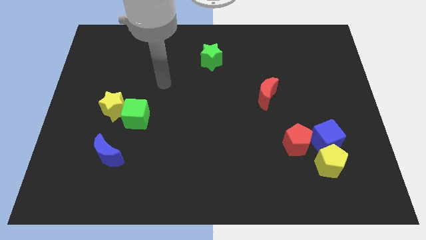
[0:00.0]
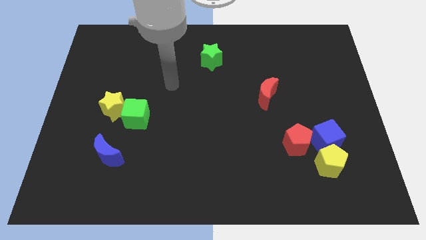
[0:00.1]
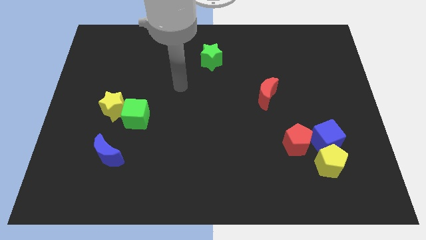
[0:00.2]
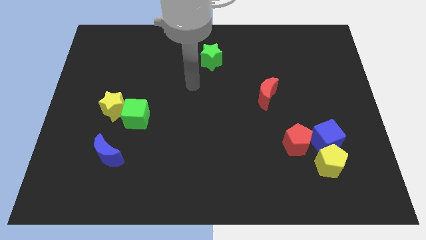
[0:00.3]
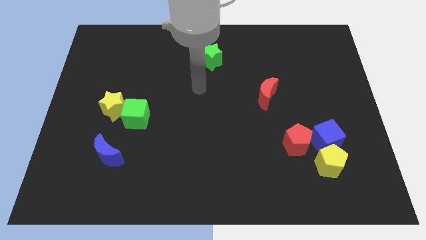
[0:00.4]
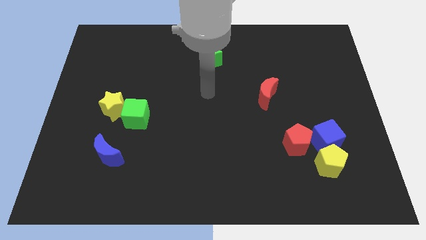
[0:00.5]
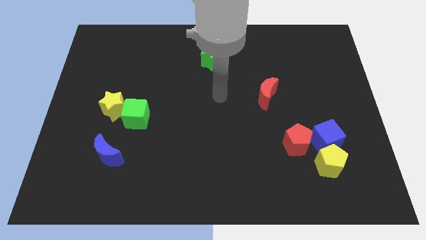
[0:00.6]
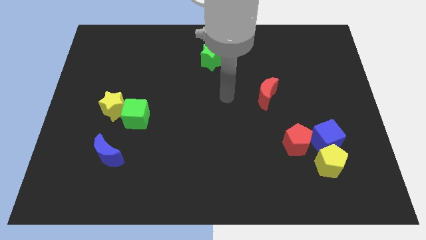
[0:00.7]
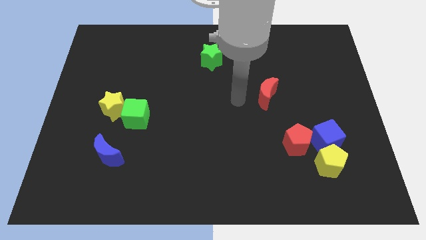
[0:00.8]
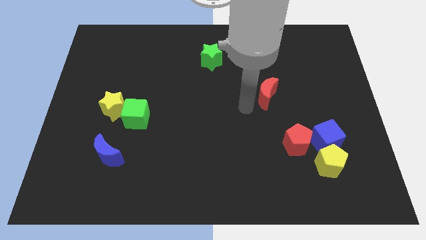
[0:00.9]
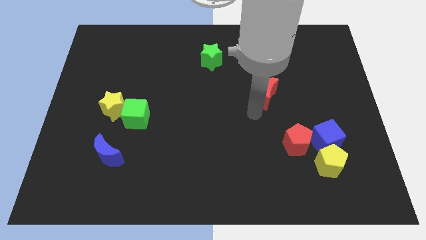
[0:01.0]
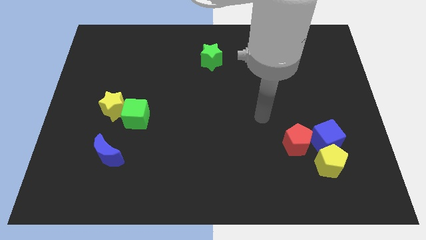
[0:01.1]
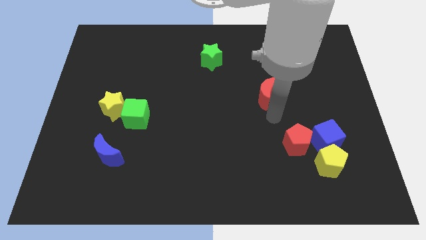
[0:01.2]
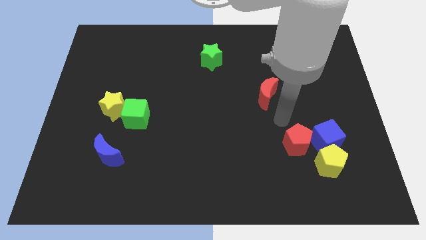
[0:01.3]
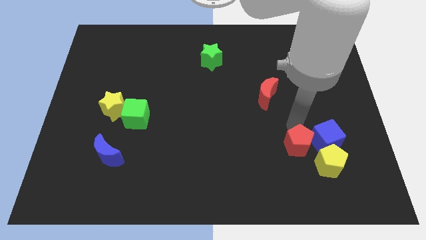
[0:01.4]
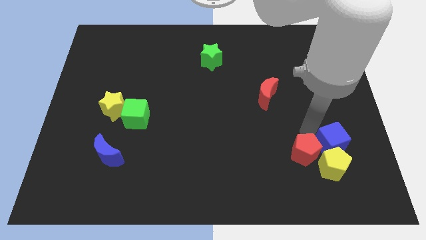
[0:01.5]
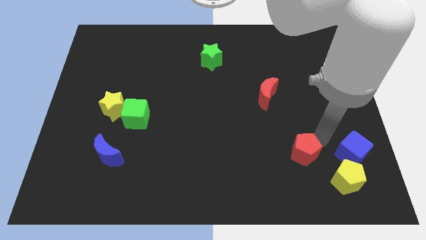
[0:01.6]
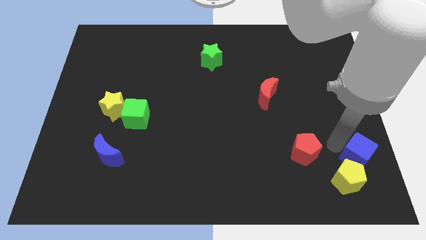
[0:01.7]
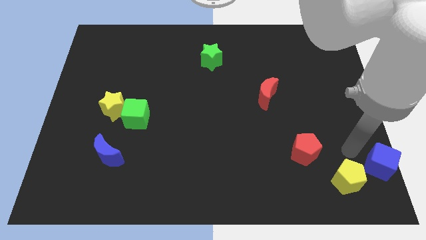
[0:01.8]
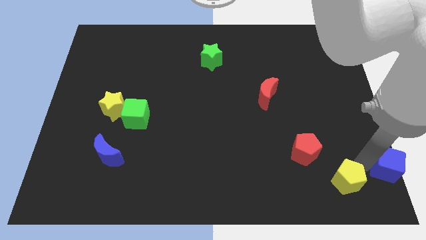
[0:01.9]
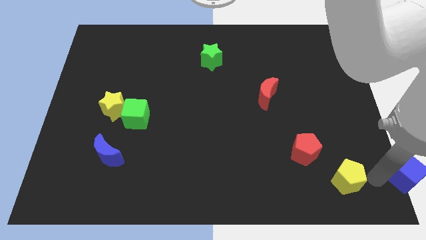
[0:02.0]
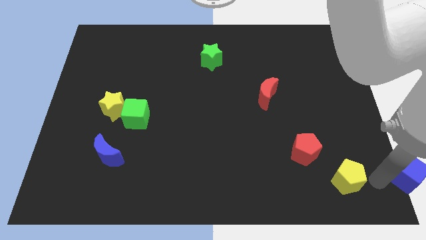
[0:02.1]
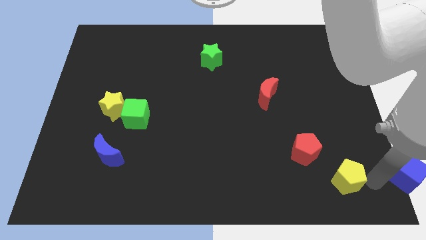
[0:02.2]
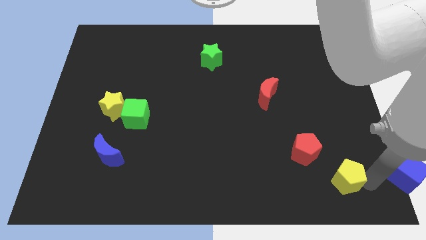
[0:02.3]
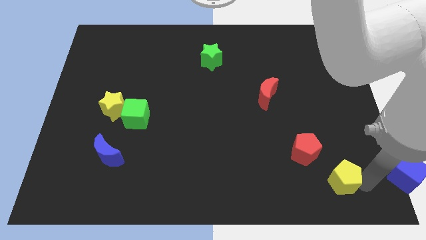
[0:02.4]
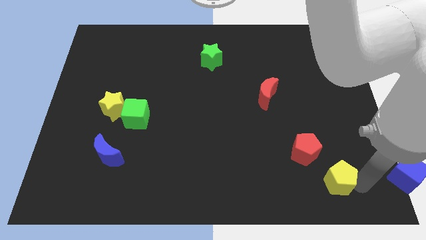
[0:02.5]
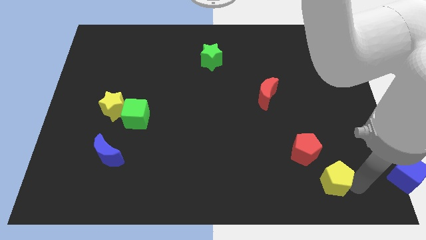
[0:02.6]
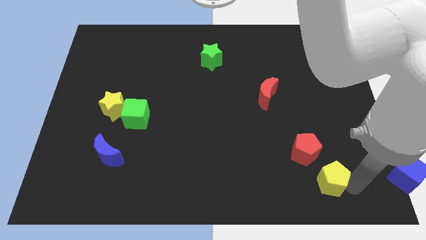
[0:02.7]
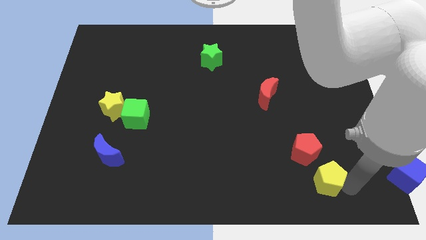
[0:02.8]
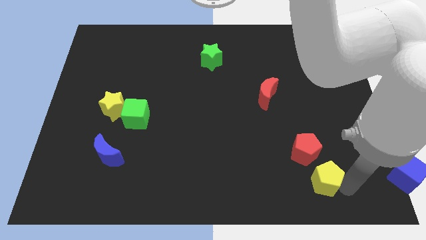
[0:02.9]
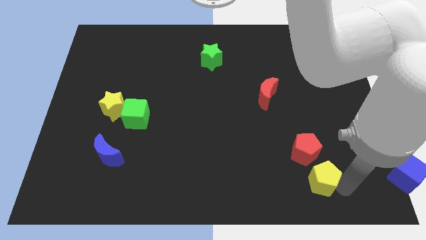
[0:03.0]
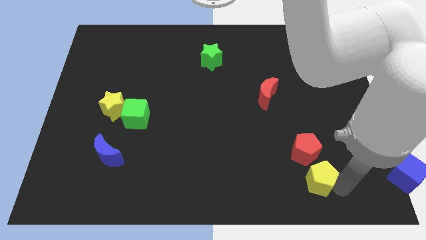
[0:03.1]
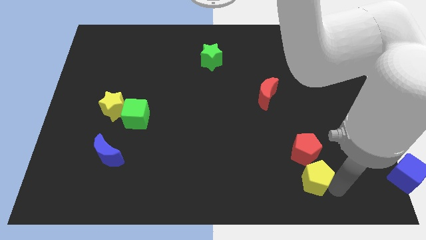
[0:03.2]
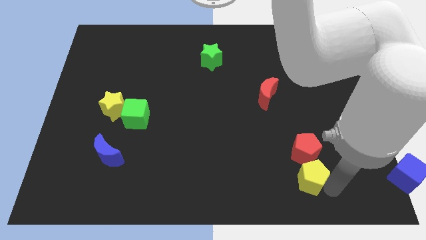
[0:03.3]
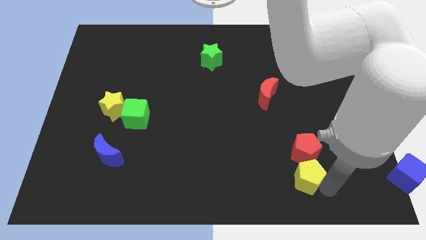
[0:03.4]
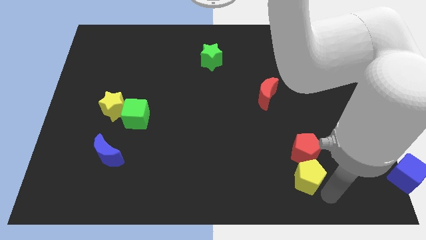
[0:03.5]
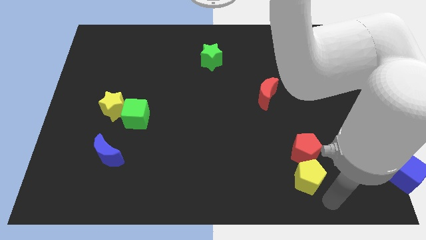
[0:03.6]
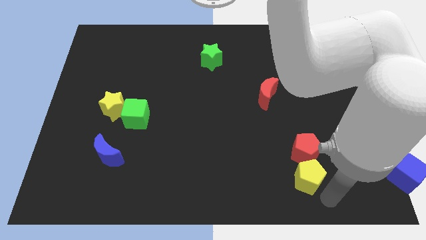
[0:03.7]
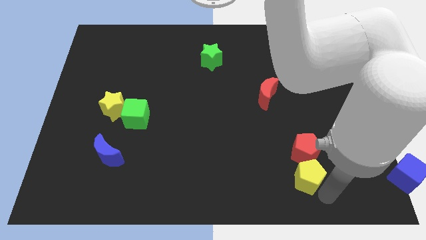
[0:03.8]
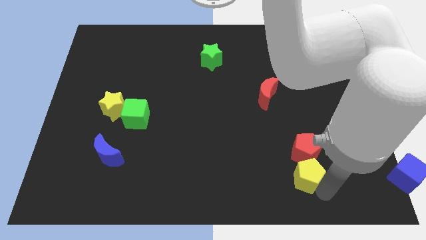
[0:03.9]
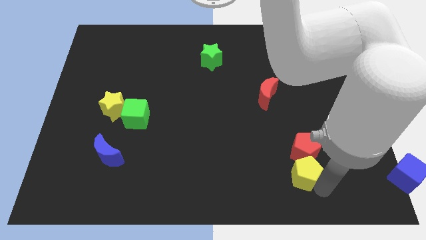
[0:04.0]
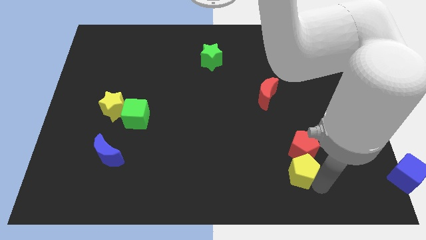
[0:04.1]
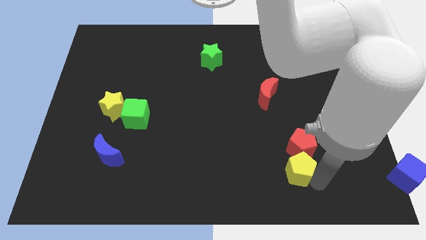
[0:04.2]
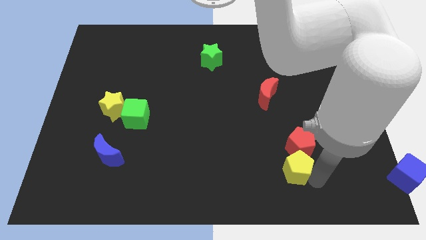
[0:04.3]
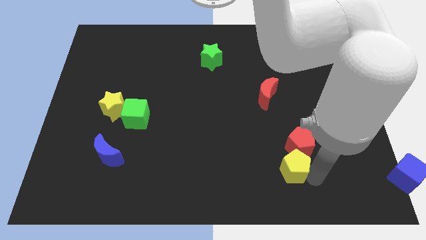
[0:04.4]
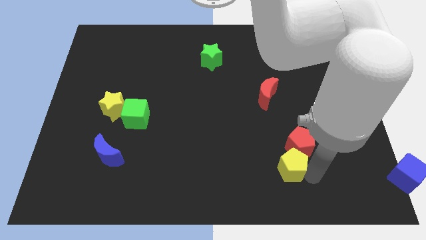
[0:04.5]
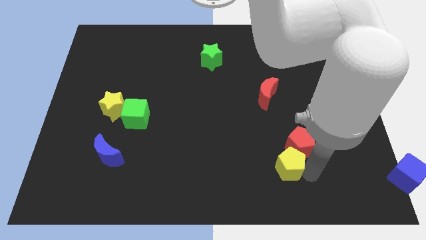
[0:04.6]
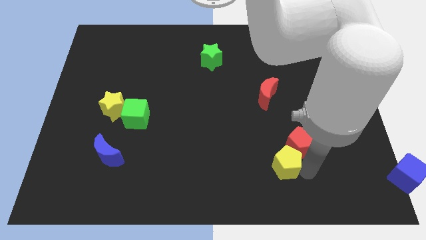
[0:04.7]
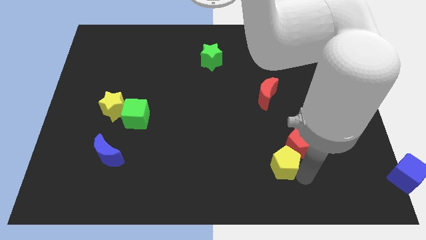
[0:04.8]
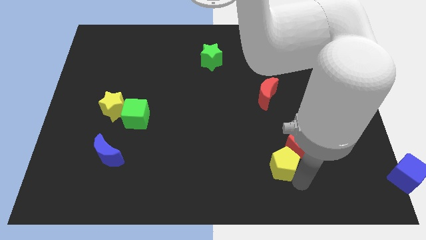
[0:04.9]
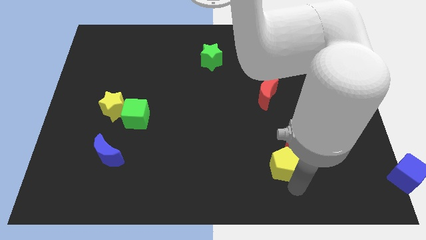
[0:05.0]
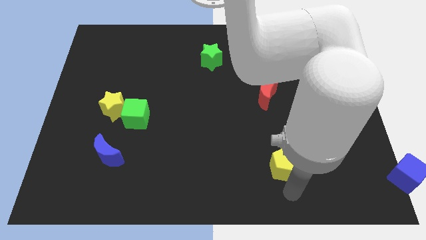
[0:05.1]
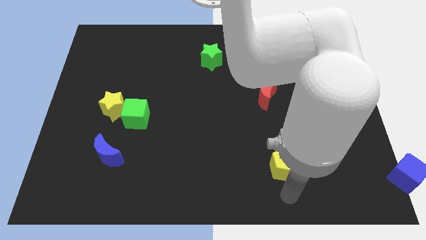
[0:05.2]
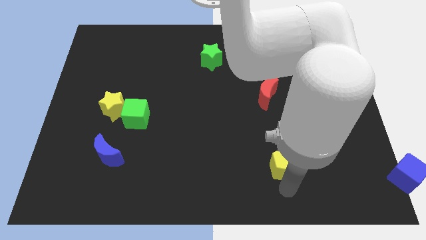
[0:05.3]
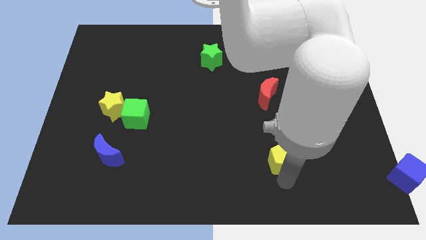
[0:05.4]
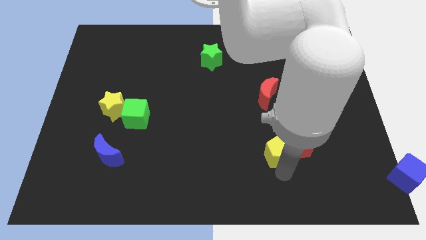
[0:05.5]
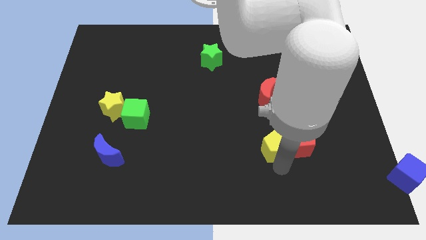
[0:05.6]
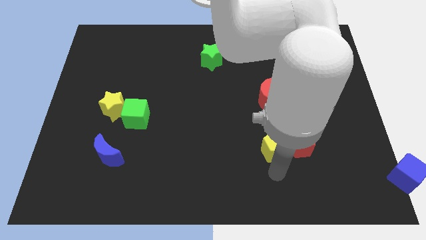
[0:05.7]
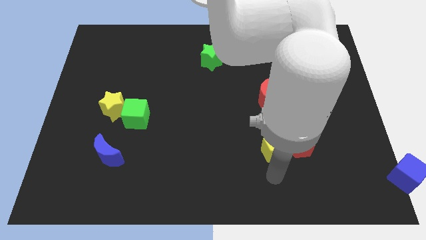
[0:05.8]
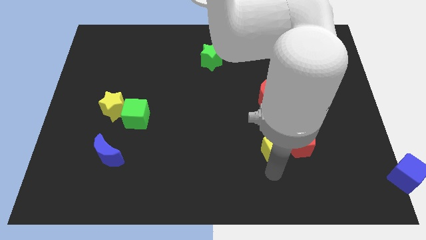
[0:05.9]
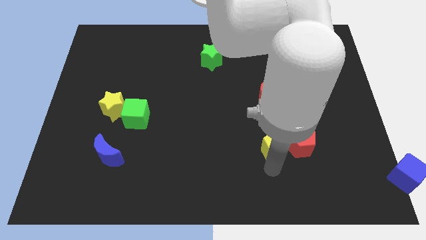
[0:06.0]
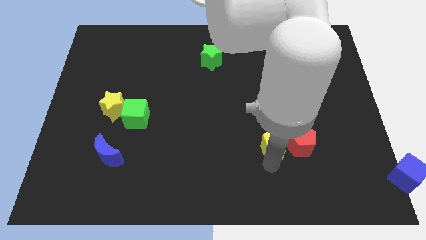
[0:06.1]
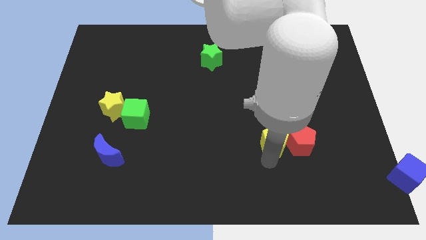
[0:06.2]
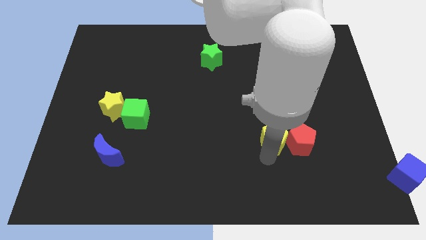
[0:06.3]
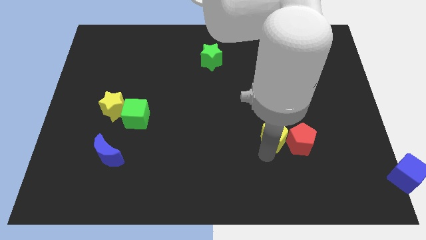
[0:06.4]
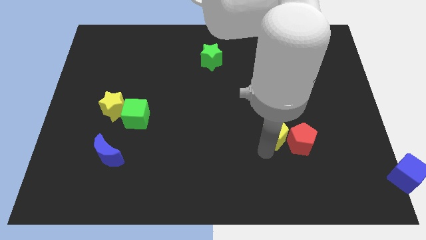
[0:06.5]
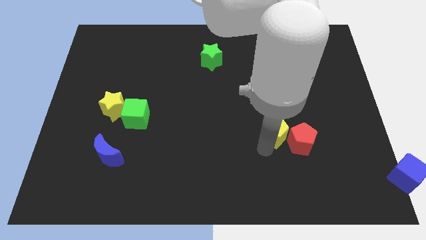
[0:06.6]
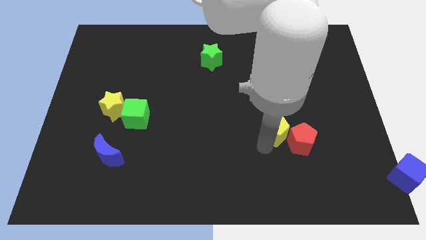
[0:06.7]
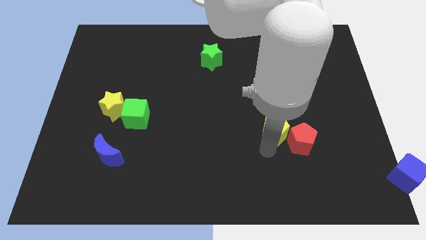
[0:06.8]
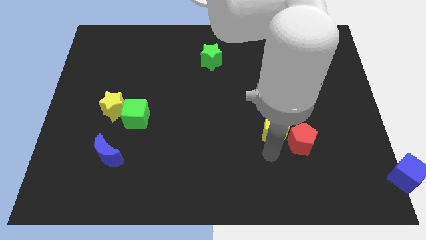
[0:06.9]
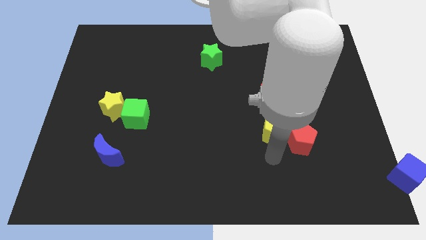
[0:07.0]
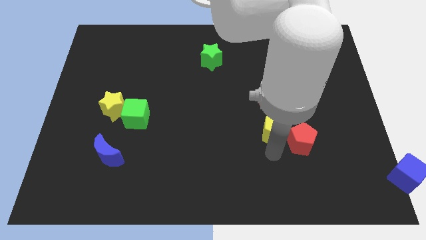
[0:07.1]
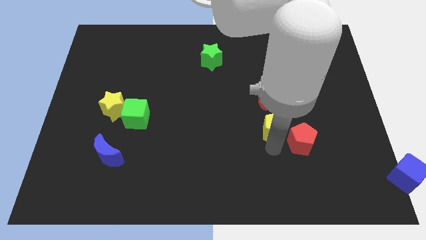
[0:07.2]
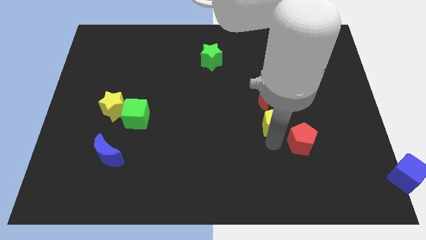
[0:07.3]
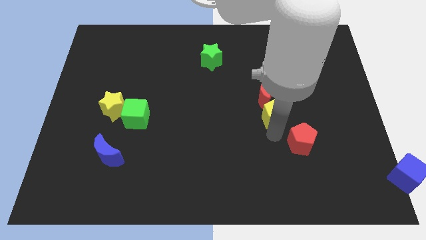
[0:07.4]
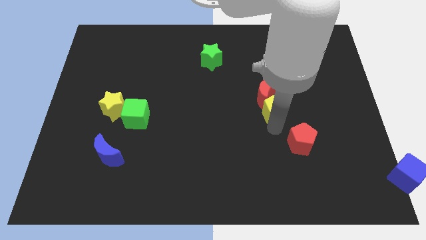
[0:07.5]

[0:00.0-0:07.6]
put the yellow pentagon to the red moon

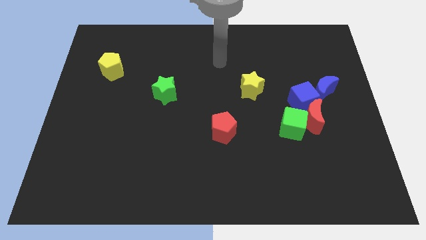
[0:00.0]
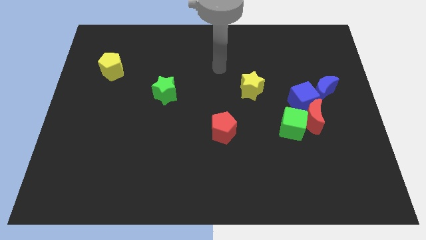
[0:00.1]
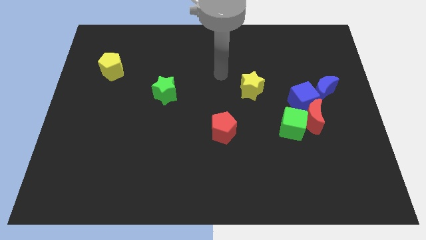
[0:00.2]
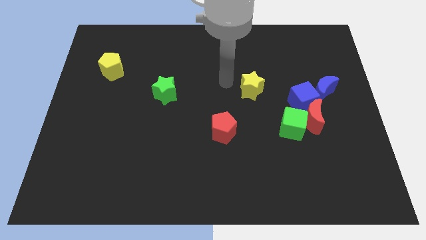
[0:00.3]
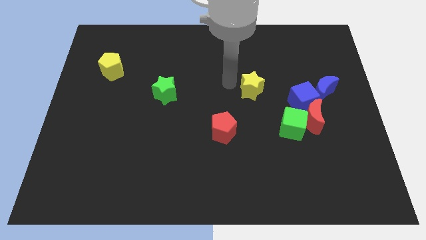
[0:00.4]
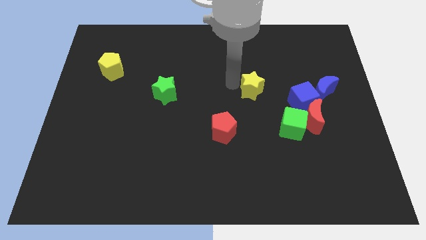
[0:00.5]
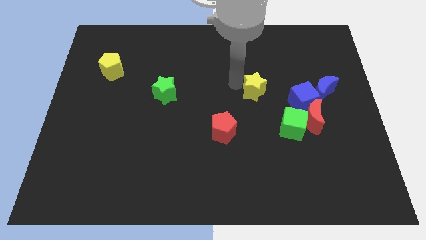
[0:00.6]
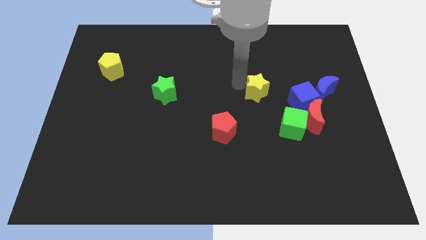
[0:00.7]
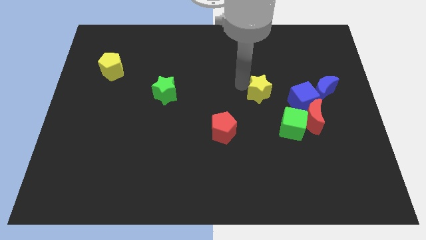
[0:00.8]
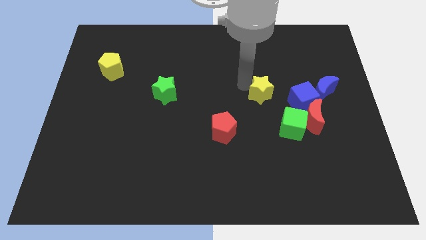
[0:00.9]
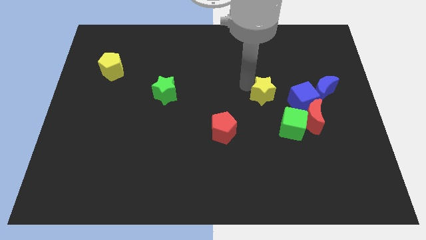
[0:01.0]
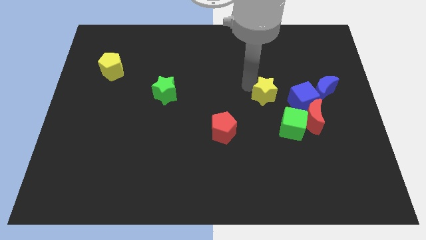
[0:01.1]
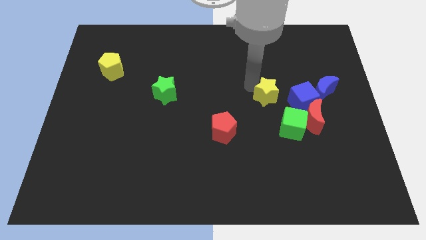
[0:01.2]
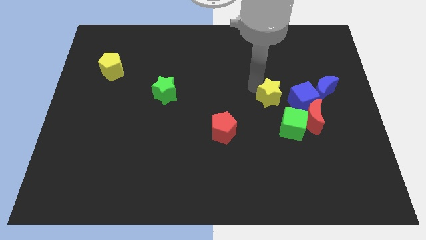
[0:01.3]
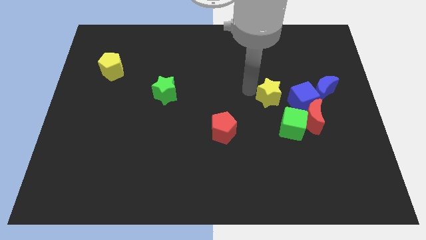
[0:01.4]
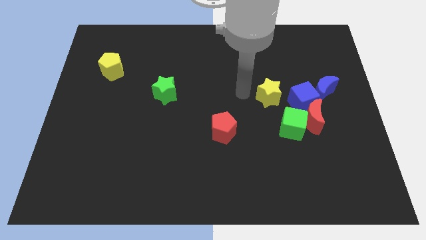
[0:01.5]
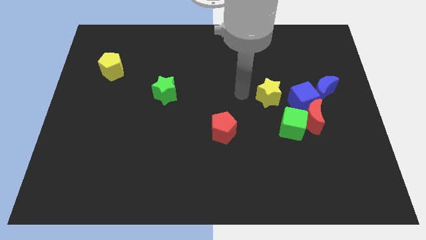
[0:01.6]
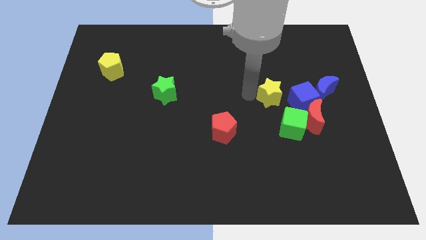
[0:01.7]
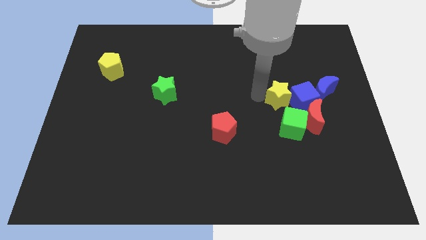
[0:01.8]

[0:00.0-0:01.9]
put the yellow star towards the blue cube
